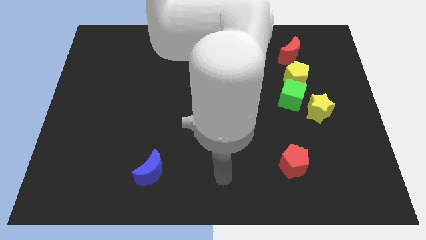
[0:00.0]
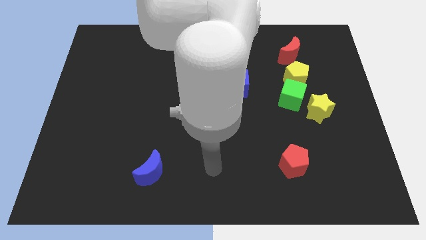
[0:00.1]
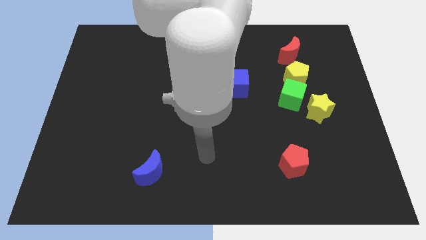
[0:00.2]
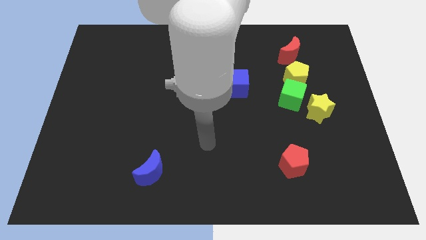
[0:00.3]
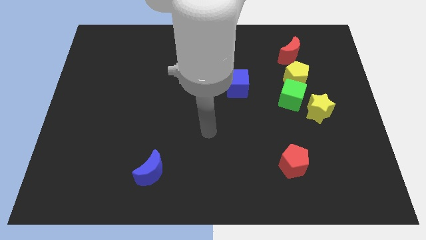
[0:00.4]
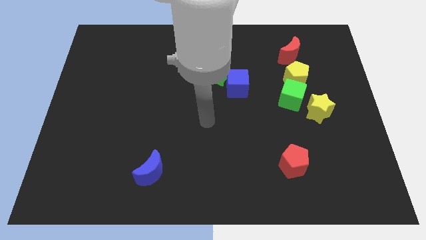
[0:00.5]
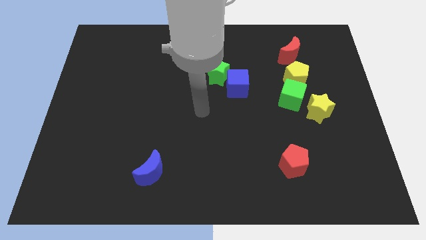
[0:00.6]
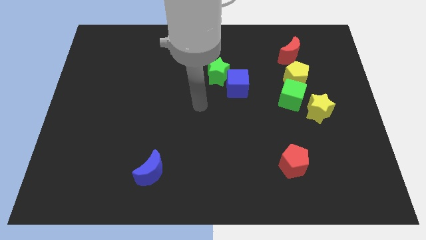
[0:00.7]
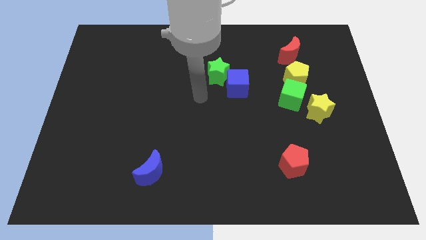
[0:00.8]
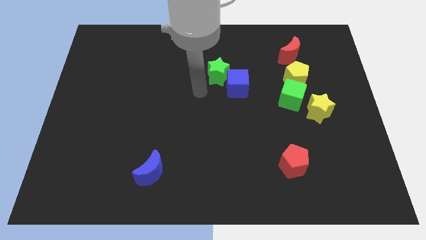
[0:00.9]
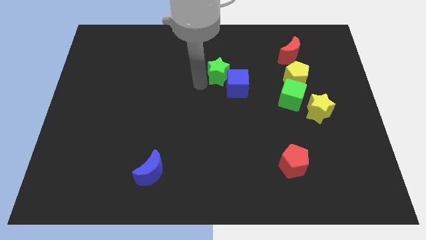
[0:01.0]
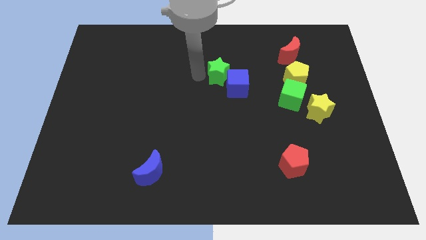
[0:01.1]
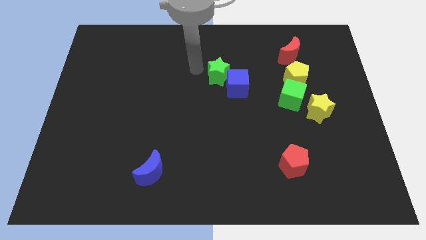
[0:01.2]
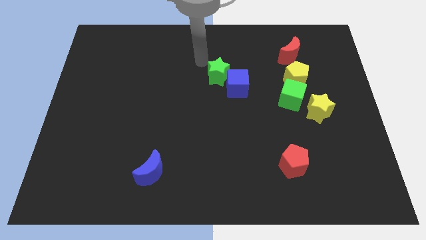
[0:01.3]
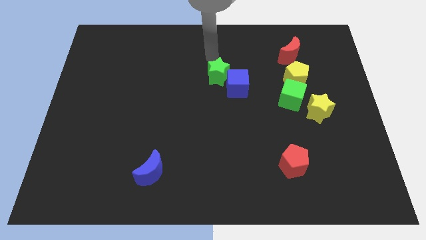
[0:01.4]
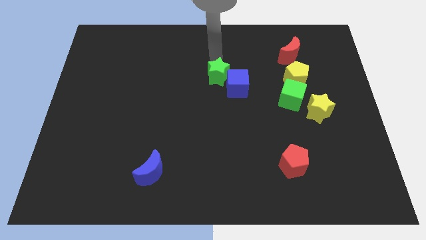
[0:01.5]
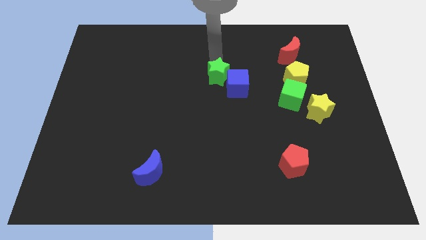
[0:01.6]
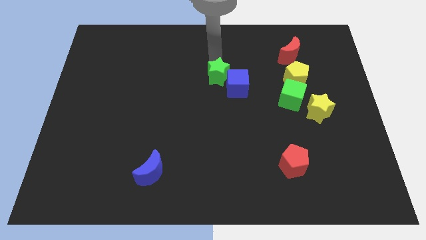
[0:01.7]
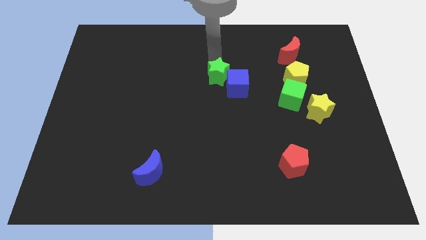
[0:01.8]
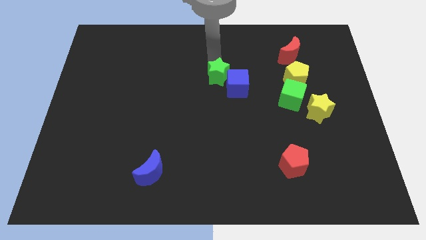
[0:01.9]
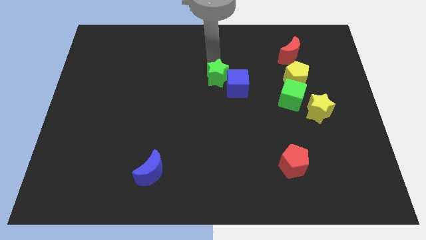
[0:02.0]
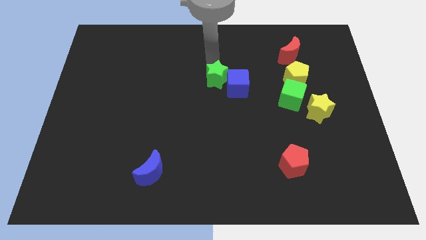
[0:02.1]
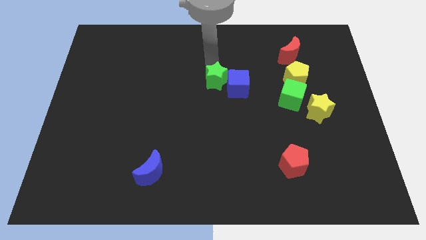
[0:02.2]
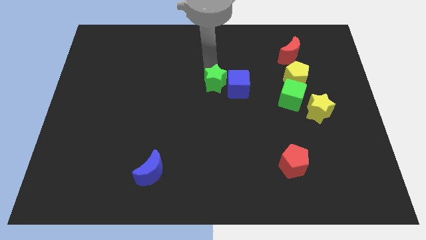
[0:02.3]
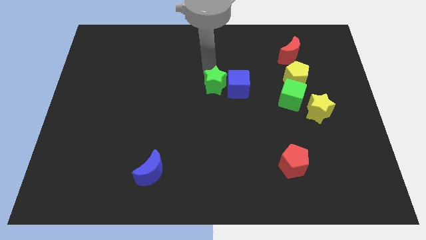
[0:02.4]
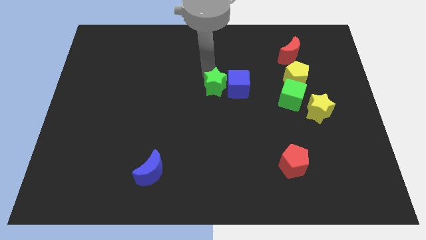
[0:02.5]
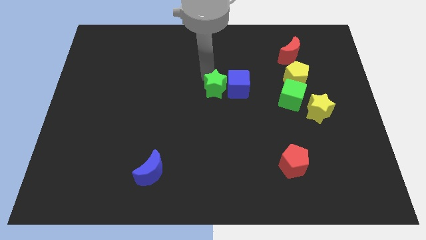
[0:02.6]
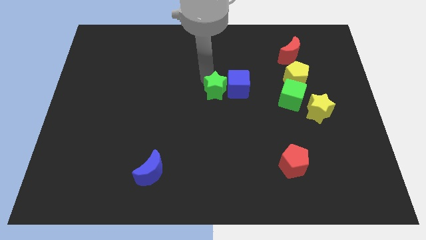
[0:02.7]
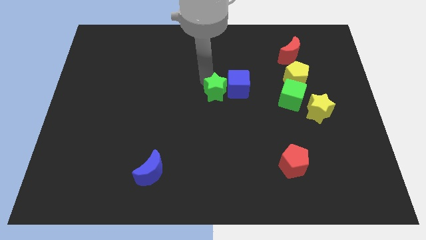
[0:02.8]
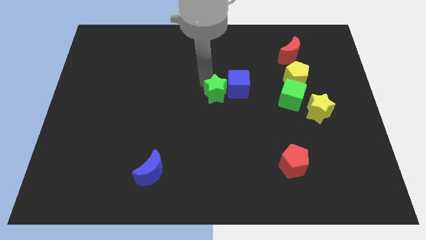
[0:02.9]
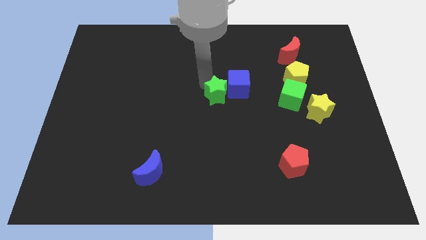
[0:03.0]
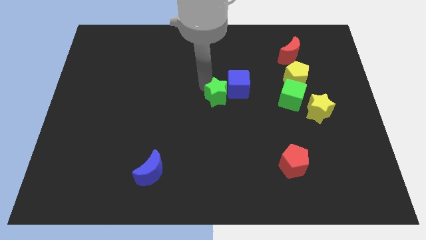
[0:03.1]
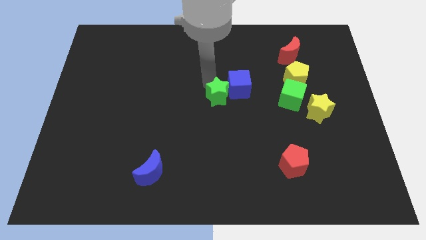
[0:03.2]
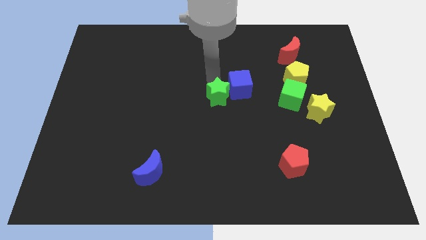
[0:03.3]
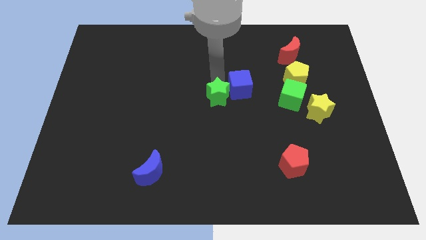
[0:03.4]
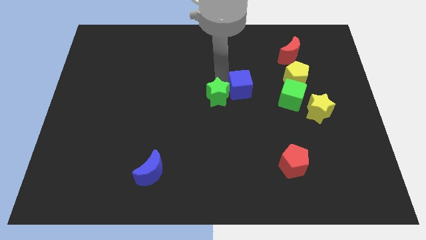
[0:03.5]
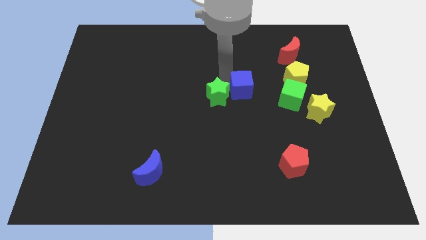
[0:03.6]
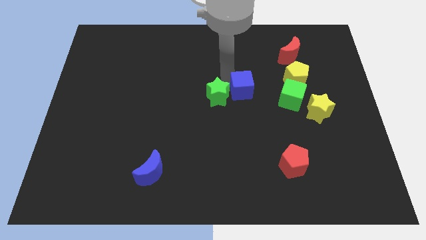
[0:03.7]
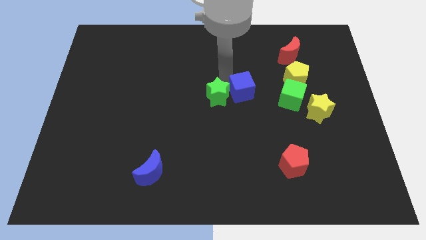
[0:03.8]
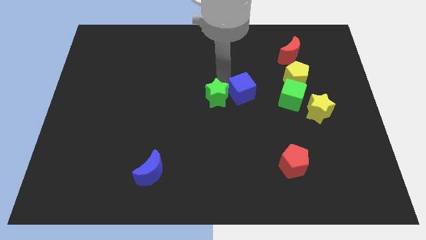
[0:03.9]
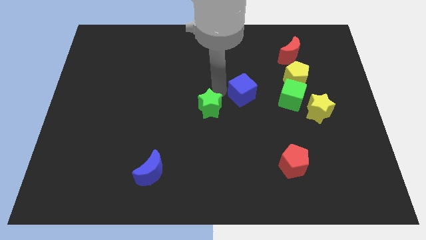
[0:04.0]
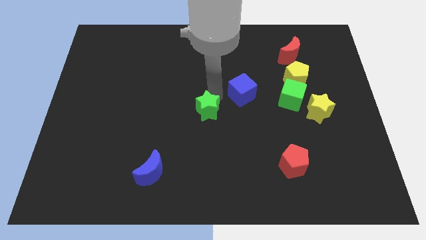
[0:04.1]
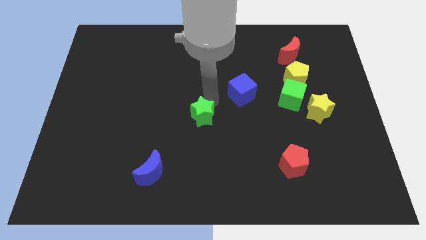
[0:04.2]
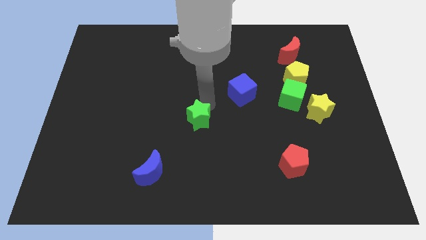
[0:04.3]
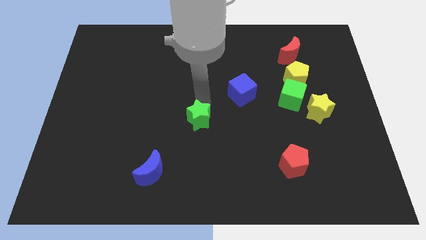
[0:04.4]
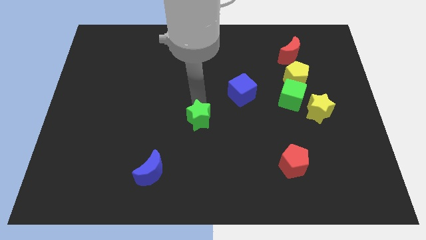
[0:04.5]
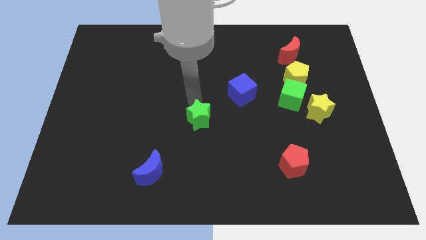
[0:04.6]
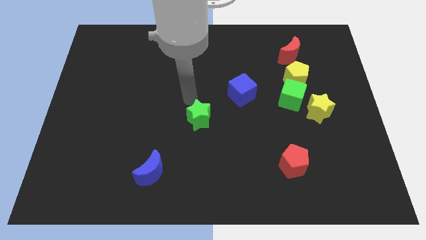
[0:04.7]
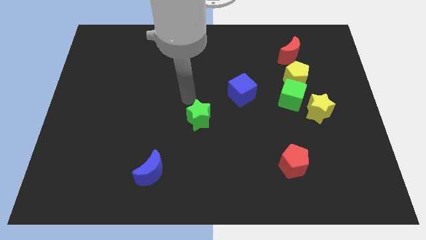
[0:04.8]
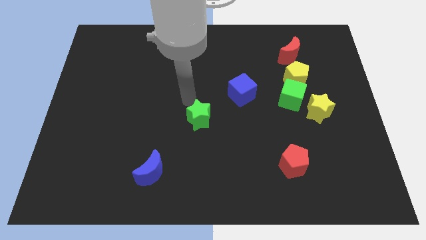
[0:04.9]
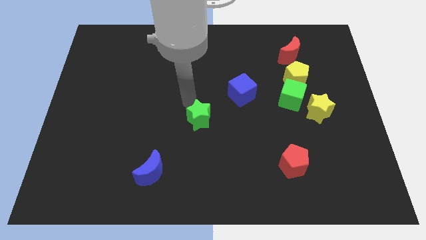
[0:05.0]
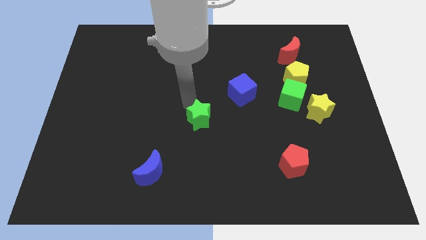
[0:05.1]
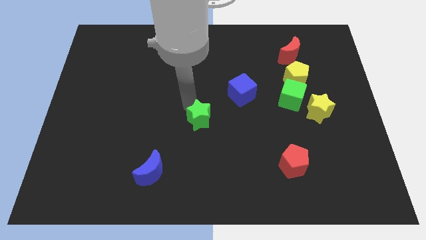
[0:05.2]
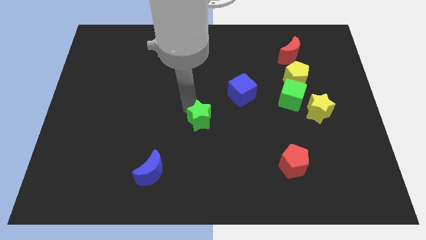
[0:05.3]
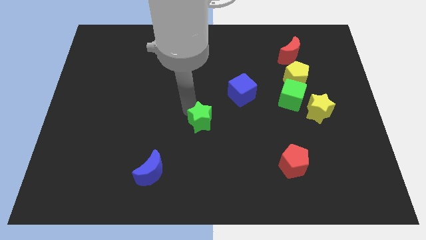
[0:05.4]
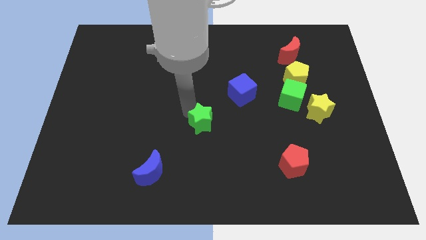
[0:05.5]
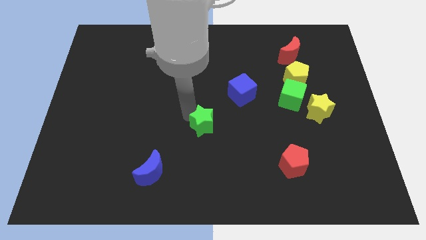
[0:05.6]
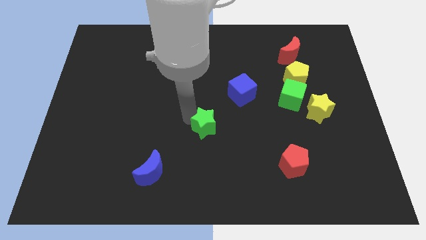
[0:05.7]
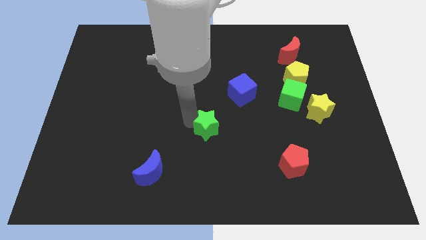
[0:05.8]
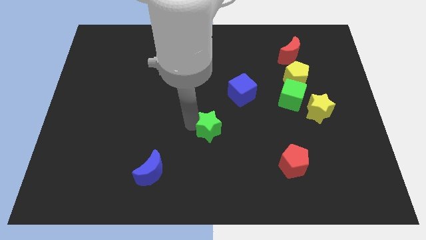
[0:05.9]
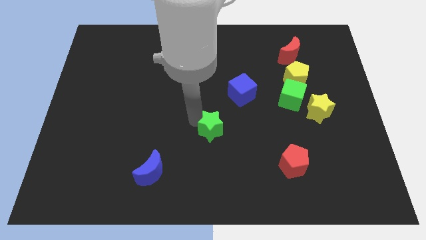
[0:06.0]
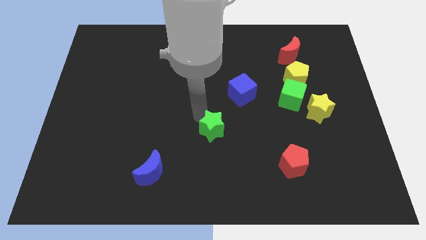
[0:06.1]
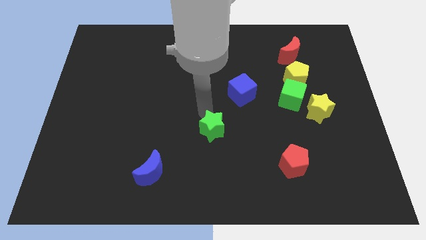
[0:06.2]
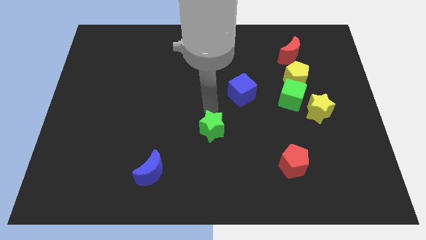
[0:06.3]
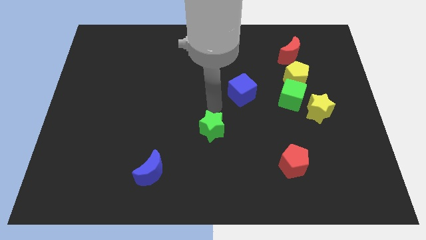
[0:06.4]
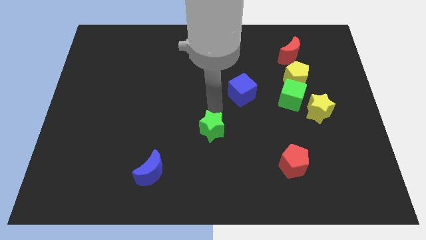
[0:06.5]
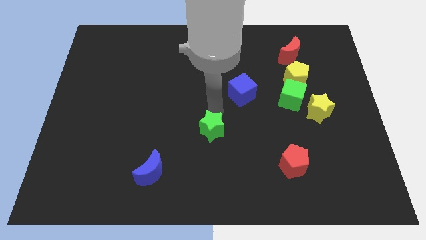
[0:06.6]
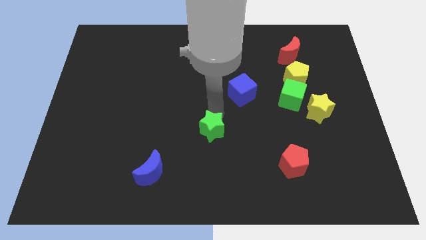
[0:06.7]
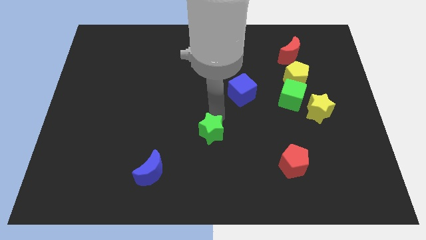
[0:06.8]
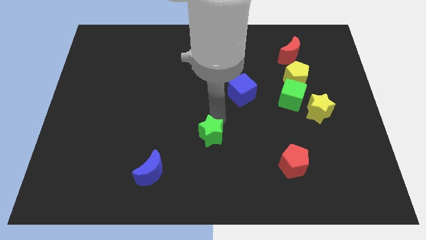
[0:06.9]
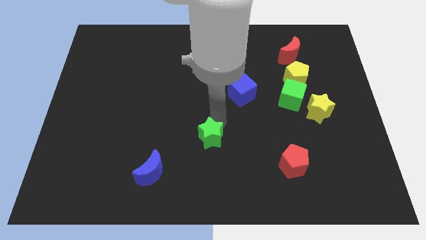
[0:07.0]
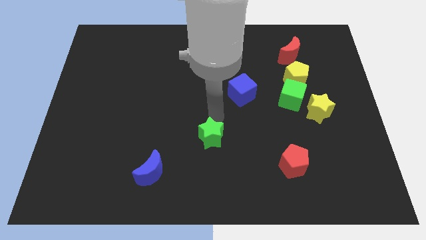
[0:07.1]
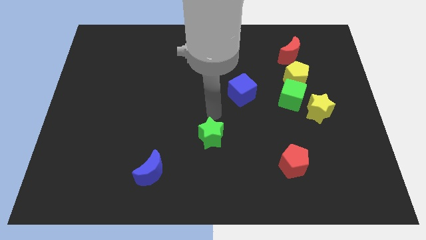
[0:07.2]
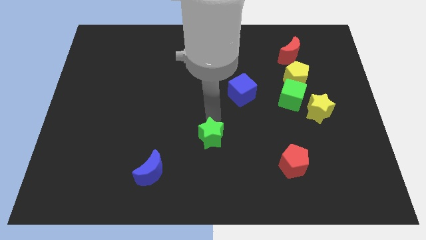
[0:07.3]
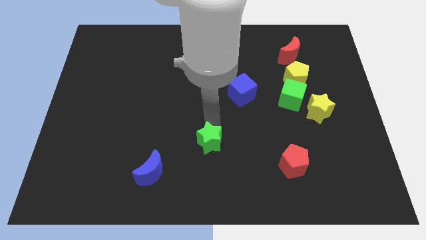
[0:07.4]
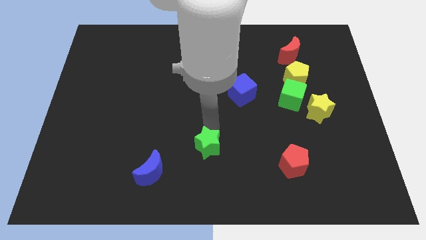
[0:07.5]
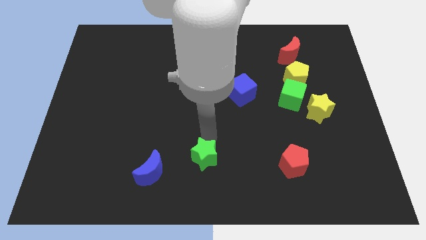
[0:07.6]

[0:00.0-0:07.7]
put the green star to the bottom side
